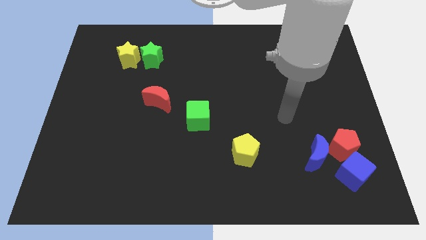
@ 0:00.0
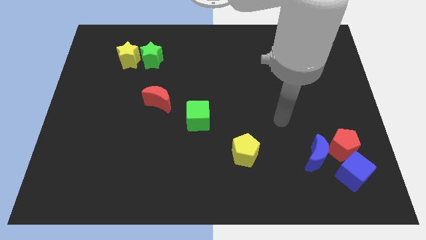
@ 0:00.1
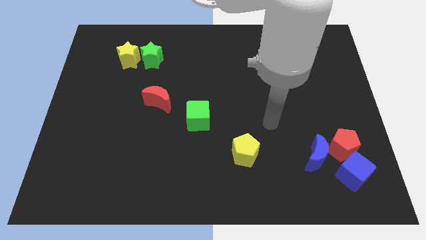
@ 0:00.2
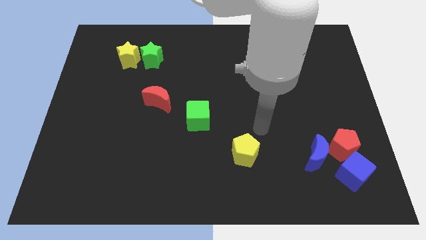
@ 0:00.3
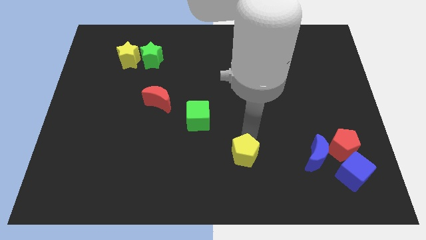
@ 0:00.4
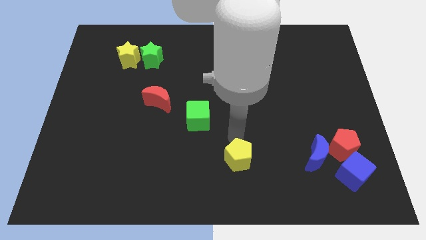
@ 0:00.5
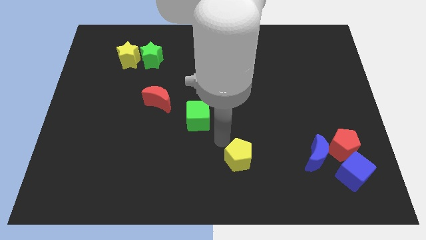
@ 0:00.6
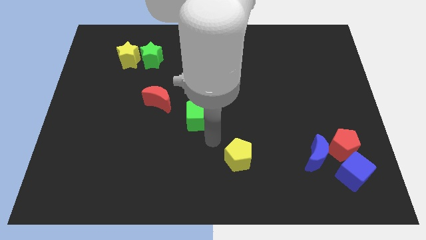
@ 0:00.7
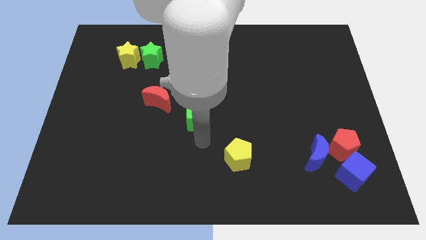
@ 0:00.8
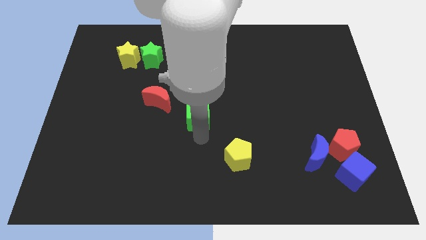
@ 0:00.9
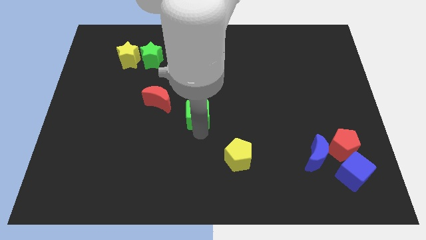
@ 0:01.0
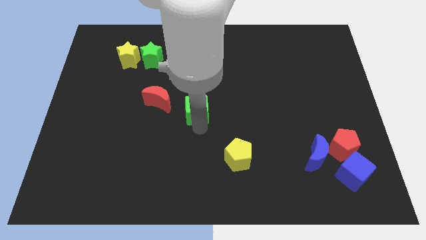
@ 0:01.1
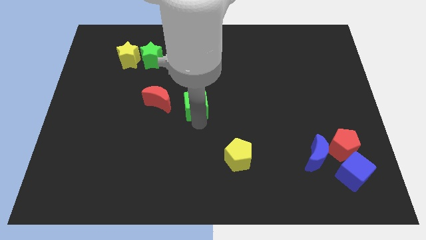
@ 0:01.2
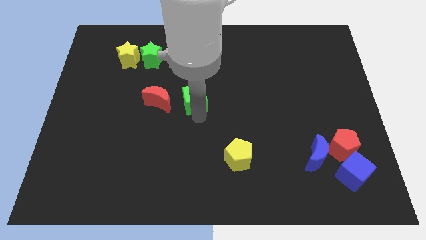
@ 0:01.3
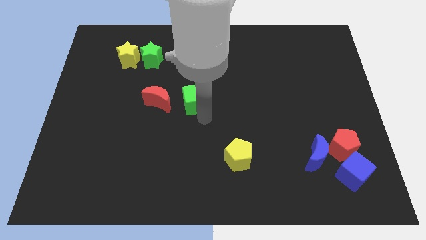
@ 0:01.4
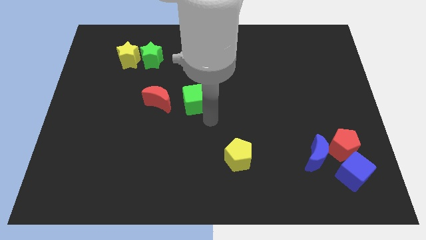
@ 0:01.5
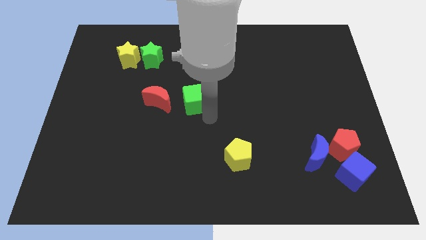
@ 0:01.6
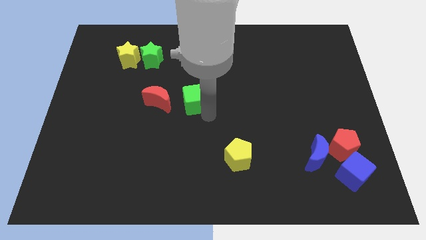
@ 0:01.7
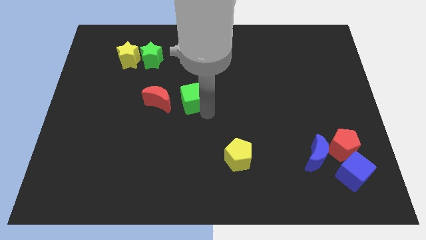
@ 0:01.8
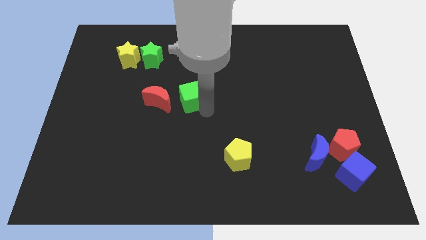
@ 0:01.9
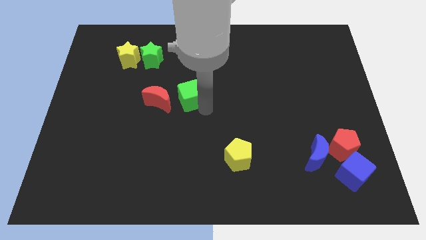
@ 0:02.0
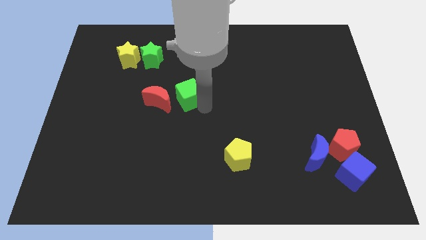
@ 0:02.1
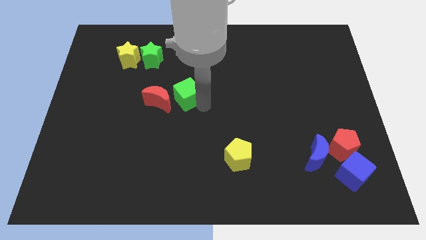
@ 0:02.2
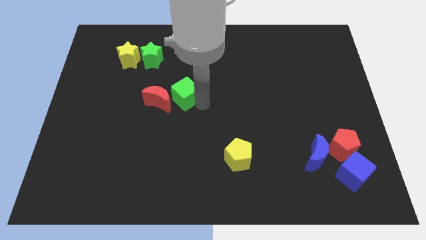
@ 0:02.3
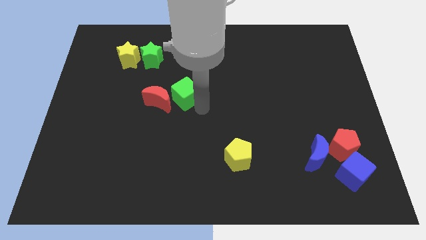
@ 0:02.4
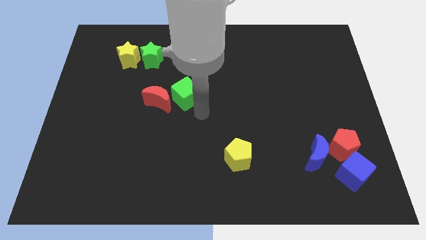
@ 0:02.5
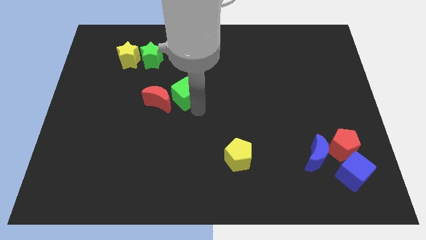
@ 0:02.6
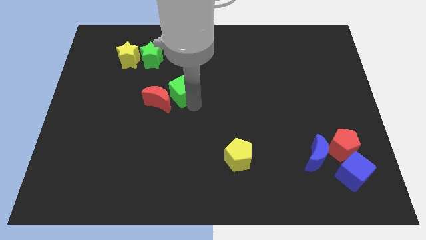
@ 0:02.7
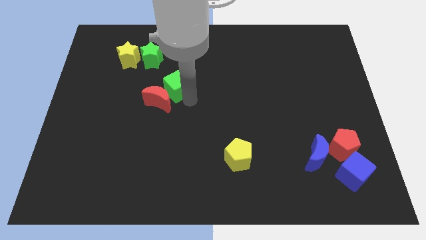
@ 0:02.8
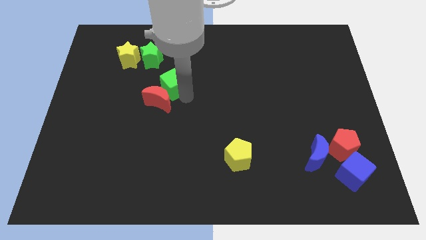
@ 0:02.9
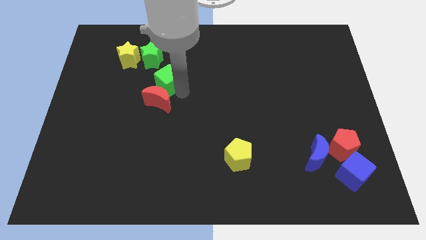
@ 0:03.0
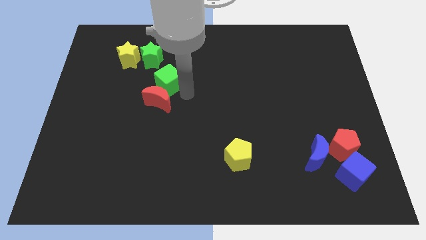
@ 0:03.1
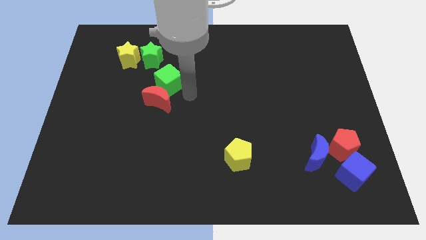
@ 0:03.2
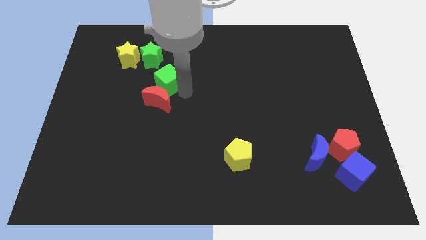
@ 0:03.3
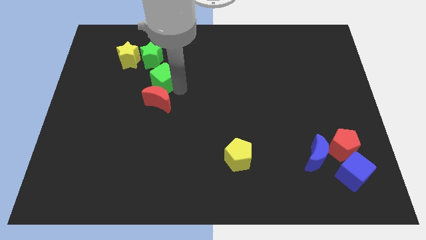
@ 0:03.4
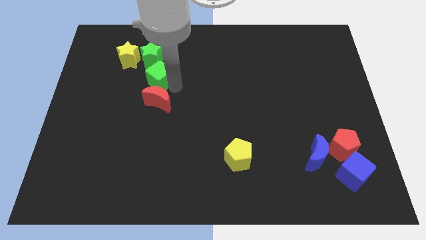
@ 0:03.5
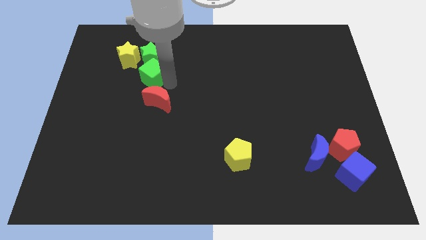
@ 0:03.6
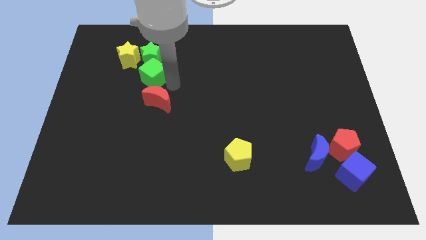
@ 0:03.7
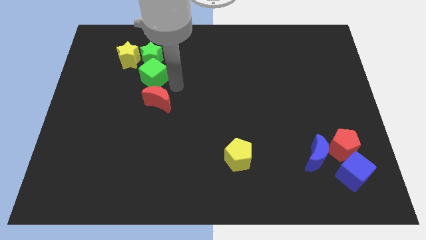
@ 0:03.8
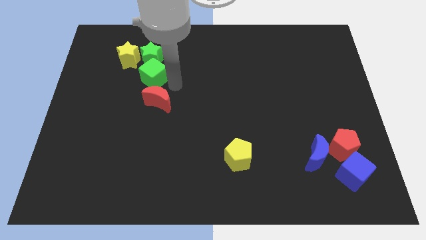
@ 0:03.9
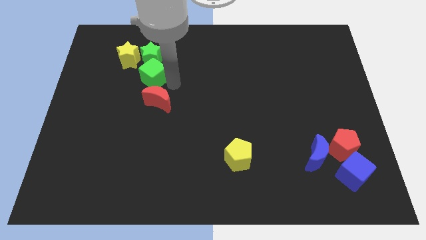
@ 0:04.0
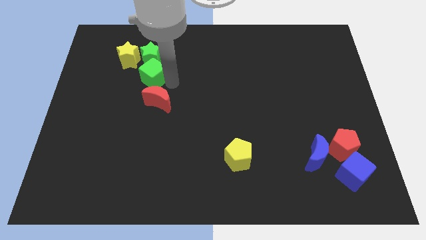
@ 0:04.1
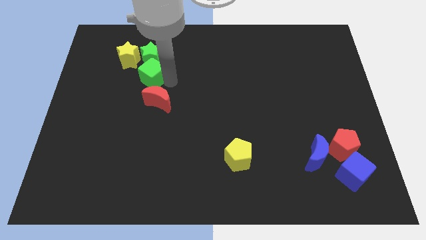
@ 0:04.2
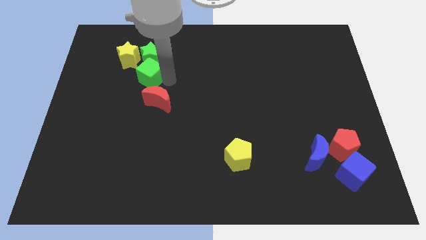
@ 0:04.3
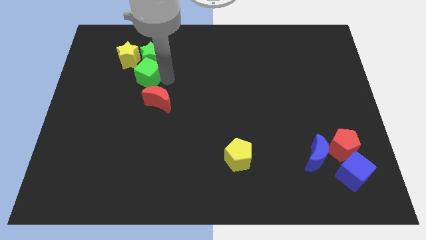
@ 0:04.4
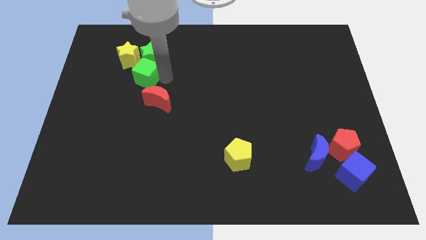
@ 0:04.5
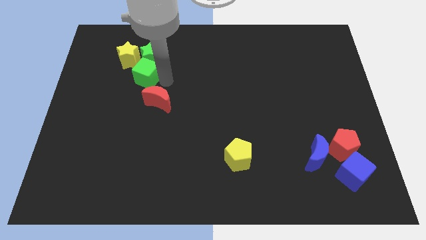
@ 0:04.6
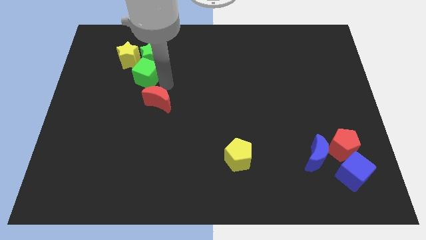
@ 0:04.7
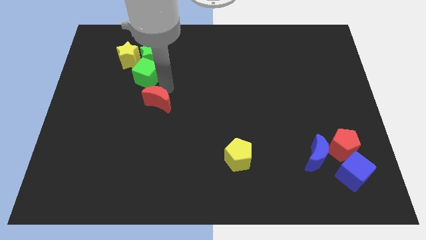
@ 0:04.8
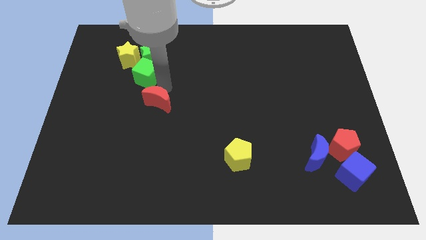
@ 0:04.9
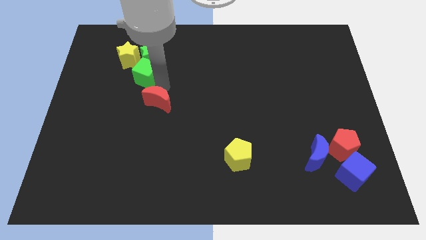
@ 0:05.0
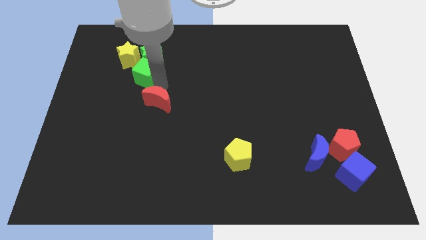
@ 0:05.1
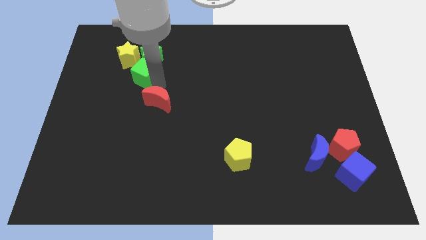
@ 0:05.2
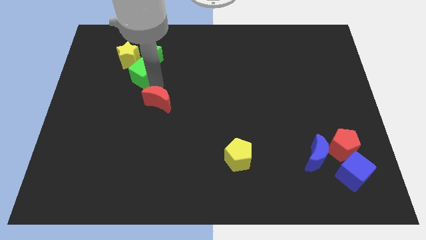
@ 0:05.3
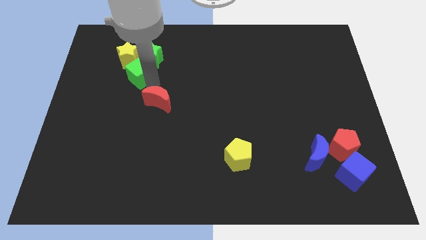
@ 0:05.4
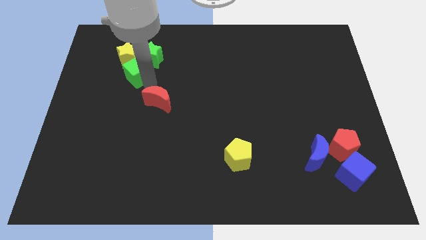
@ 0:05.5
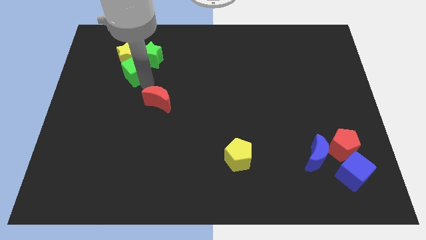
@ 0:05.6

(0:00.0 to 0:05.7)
put the green cube close to the yellow star

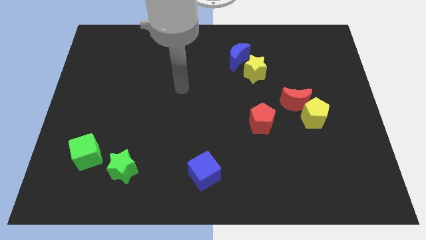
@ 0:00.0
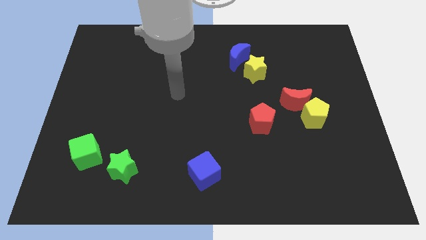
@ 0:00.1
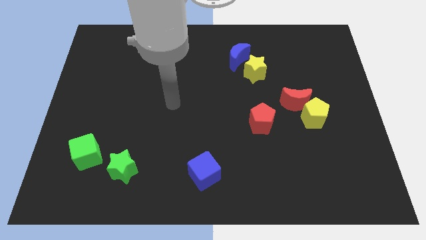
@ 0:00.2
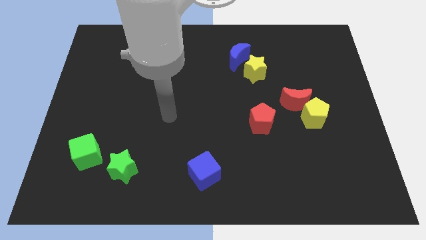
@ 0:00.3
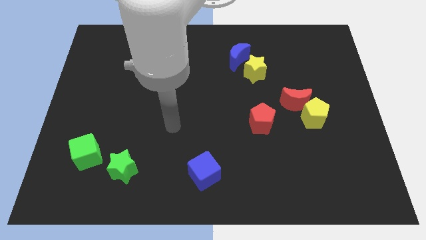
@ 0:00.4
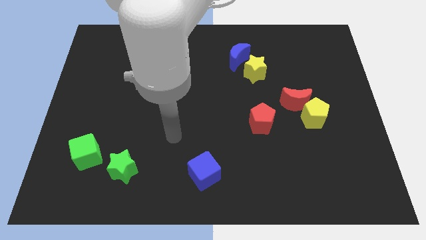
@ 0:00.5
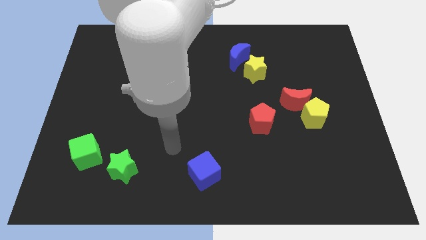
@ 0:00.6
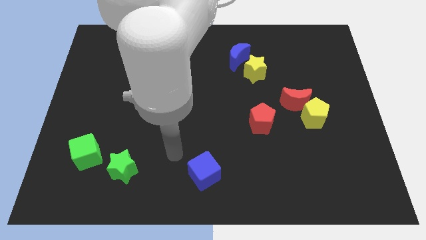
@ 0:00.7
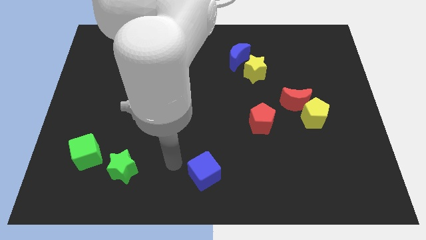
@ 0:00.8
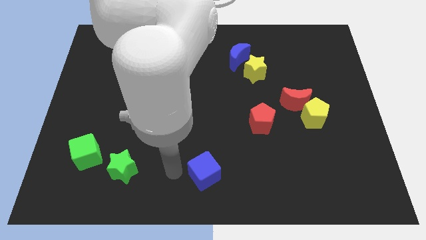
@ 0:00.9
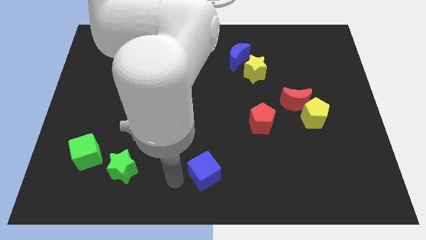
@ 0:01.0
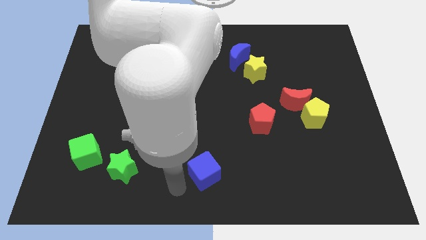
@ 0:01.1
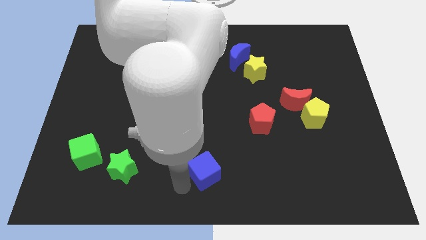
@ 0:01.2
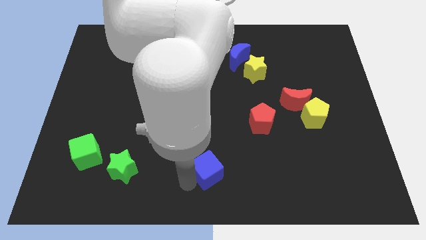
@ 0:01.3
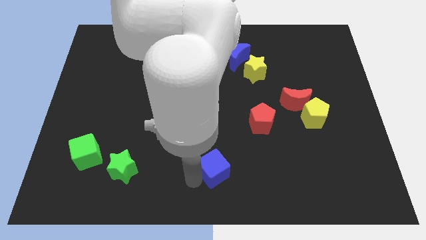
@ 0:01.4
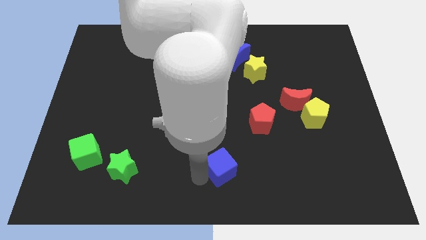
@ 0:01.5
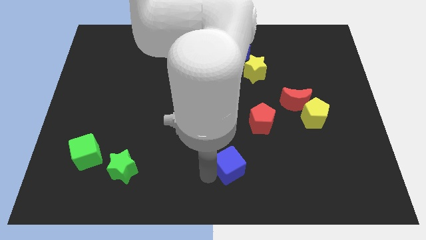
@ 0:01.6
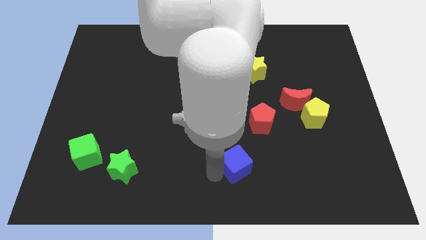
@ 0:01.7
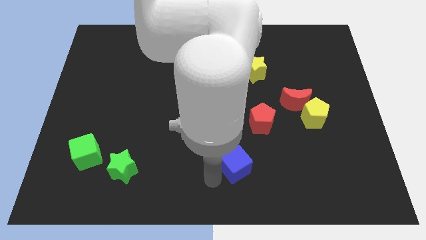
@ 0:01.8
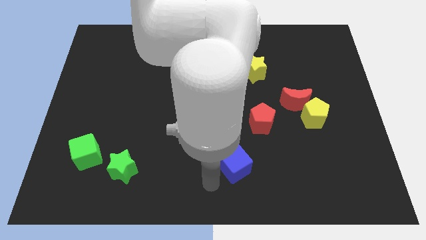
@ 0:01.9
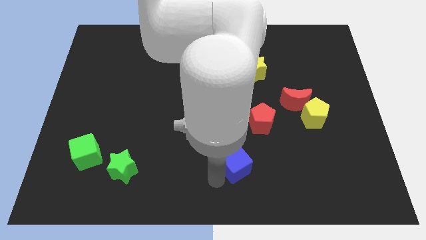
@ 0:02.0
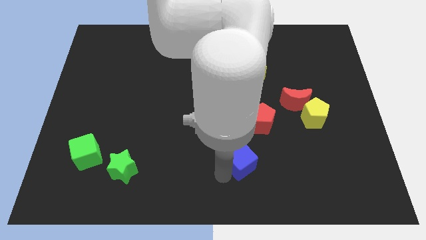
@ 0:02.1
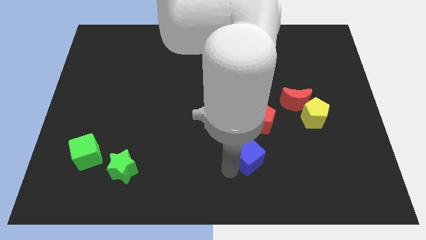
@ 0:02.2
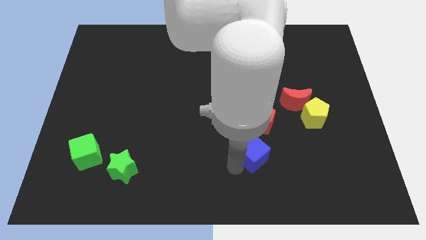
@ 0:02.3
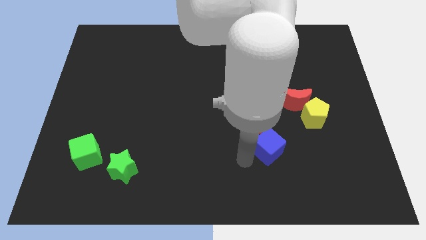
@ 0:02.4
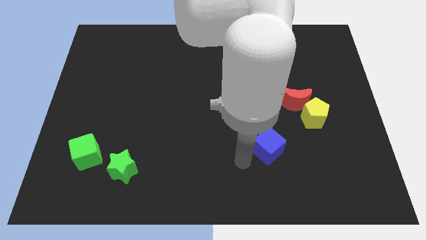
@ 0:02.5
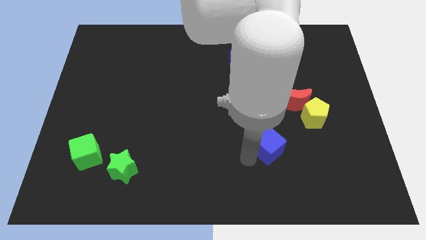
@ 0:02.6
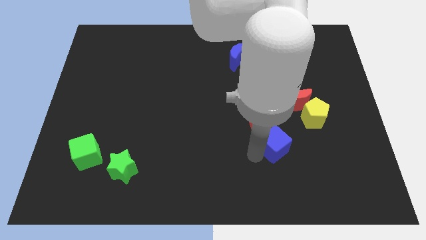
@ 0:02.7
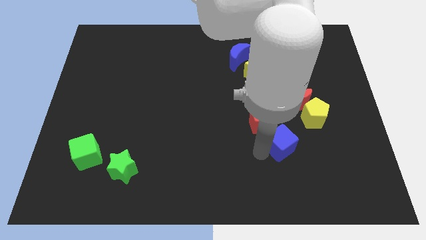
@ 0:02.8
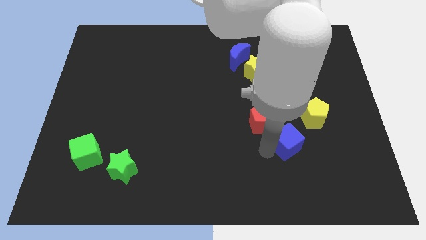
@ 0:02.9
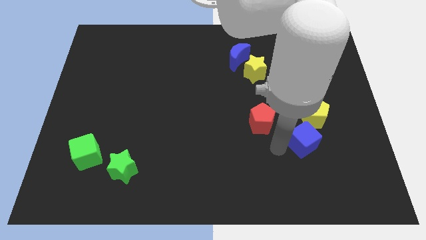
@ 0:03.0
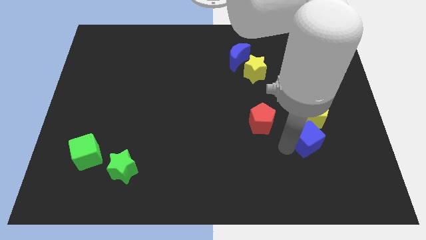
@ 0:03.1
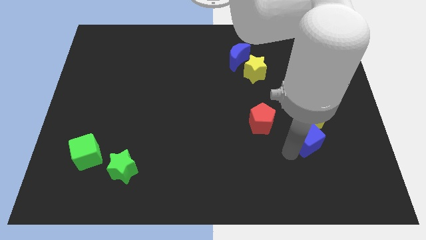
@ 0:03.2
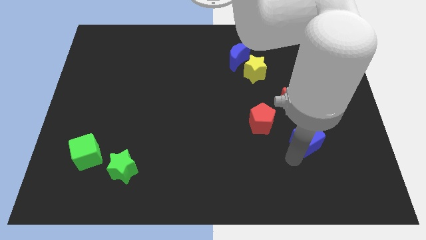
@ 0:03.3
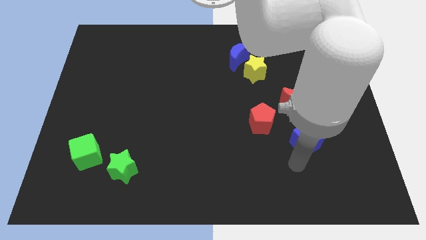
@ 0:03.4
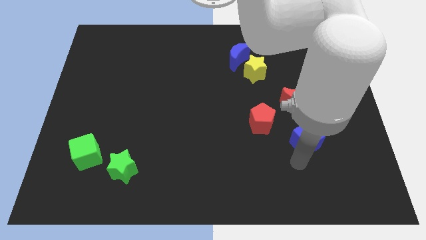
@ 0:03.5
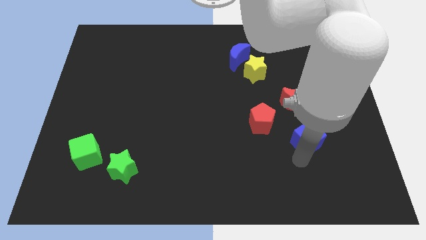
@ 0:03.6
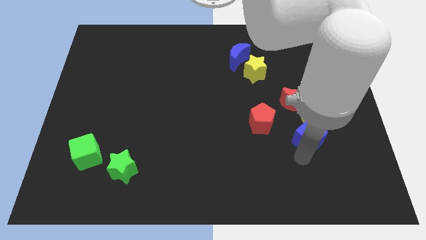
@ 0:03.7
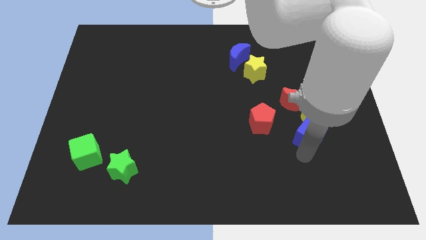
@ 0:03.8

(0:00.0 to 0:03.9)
slide the blue cube close to the yellow pentagon
